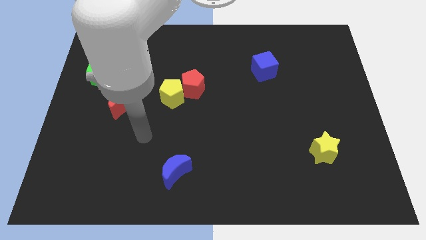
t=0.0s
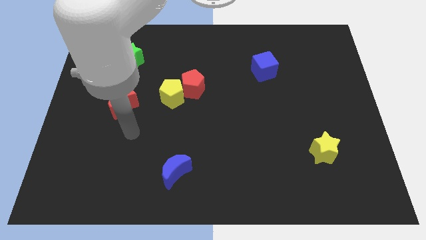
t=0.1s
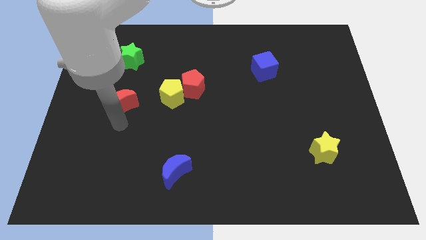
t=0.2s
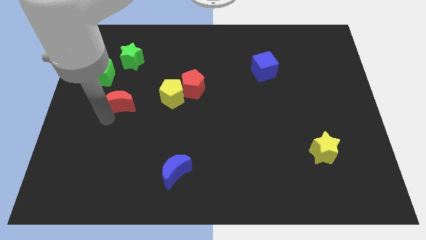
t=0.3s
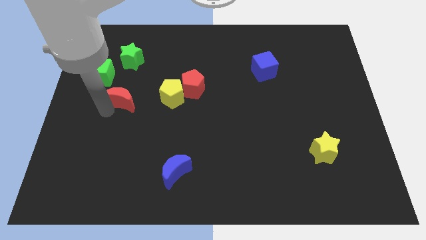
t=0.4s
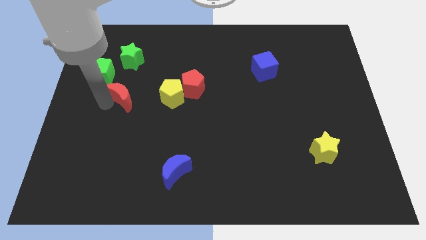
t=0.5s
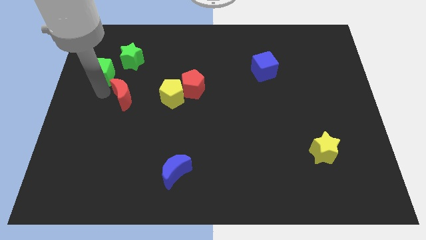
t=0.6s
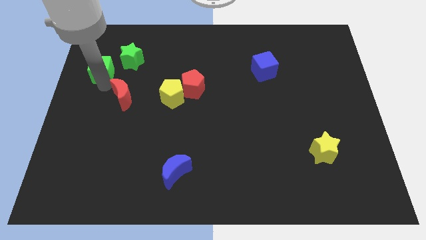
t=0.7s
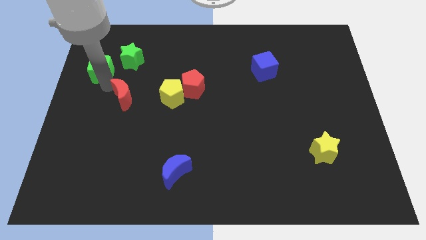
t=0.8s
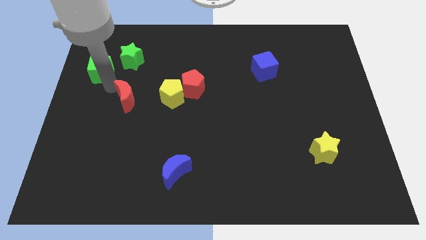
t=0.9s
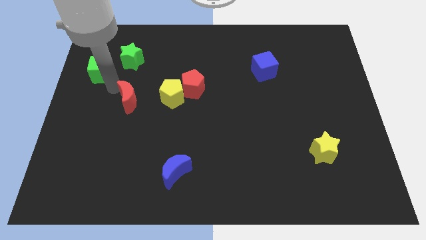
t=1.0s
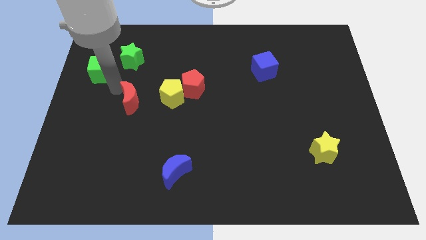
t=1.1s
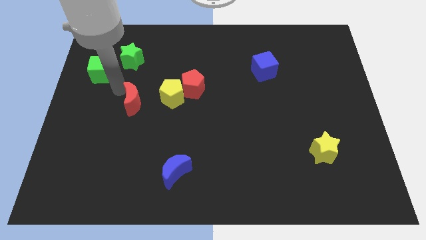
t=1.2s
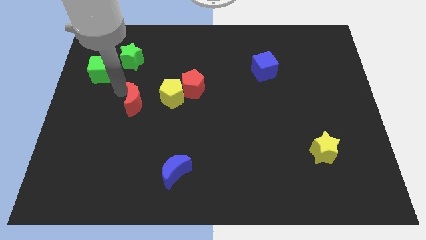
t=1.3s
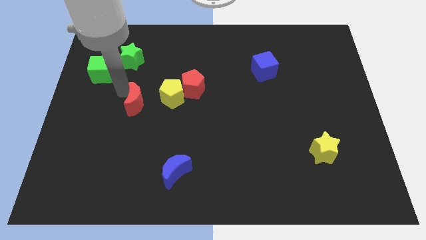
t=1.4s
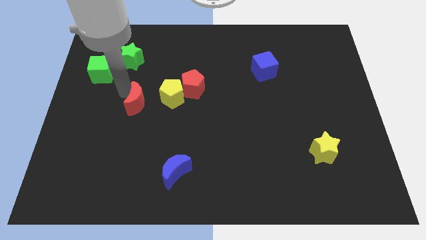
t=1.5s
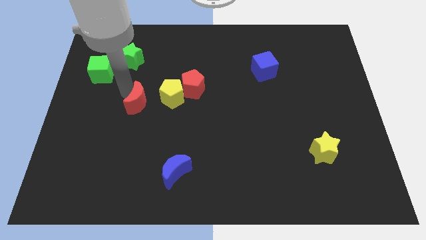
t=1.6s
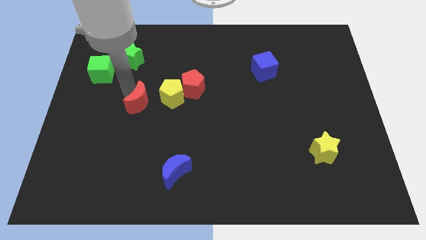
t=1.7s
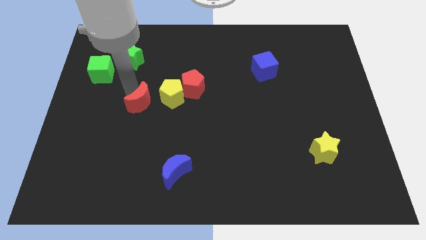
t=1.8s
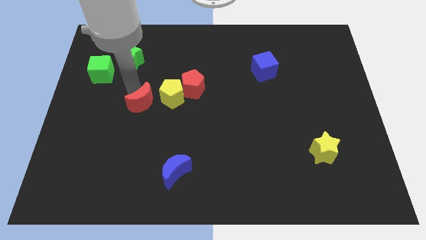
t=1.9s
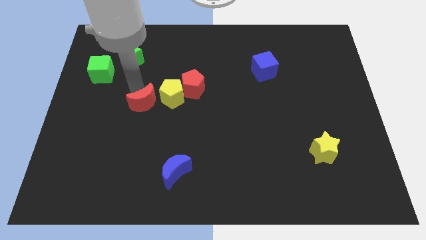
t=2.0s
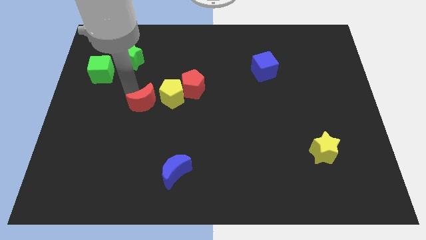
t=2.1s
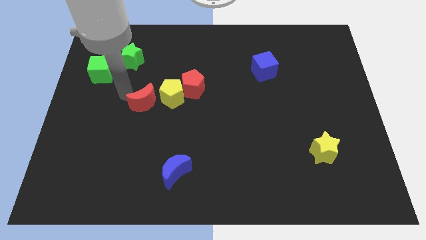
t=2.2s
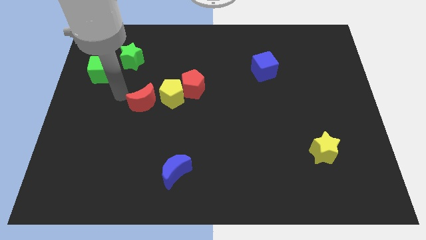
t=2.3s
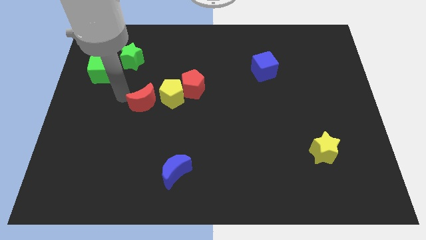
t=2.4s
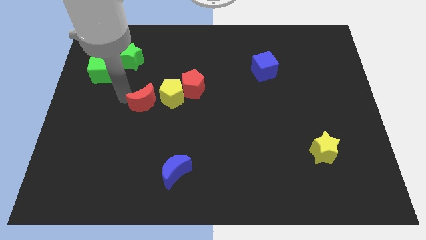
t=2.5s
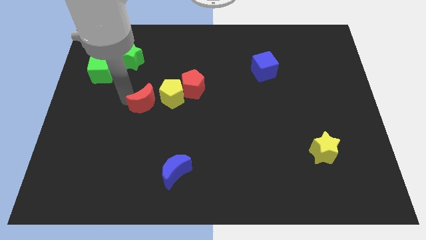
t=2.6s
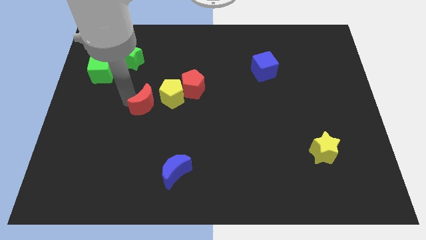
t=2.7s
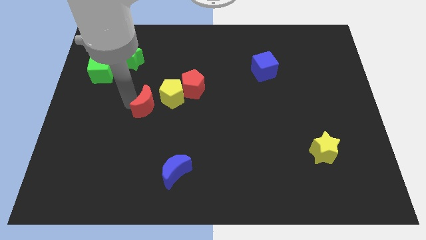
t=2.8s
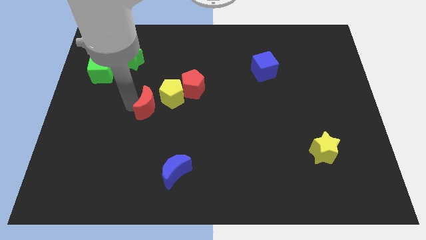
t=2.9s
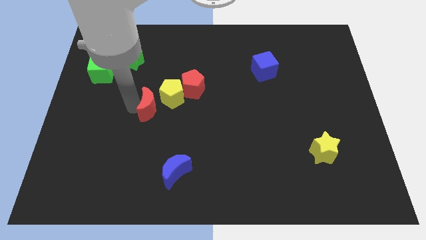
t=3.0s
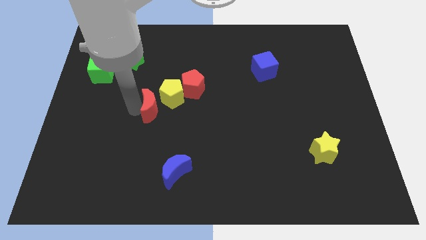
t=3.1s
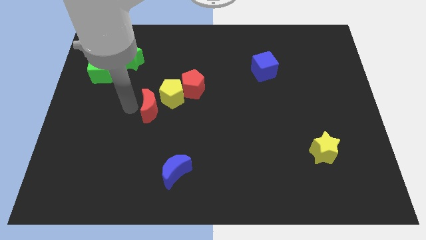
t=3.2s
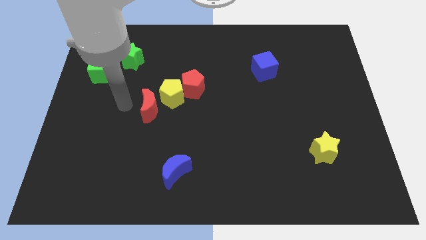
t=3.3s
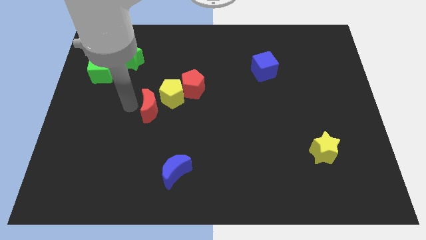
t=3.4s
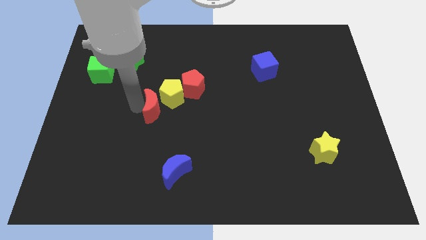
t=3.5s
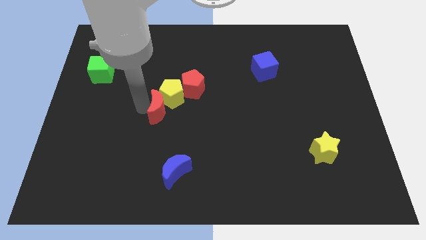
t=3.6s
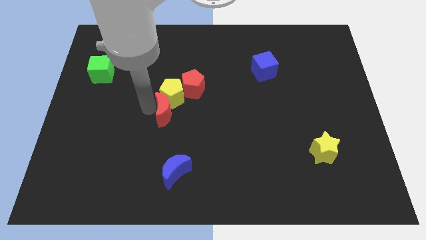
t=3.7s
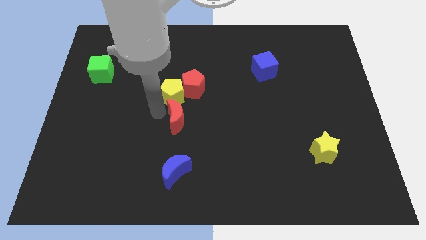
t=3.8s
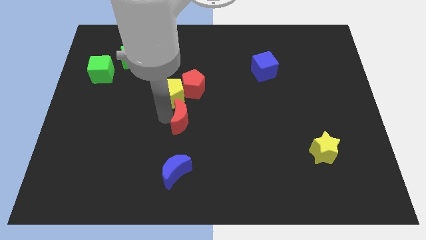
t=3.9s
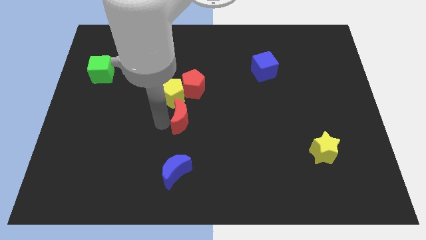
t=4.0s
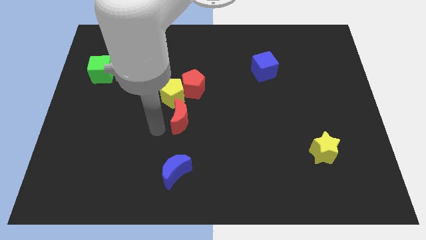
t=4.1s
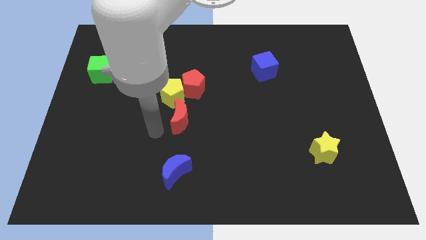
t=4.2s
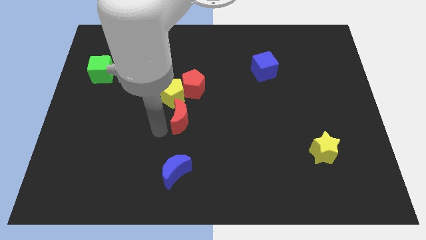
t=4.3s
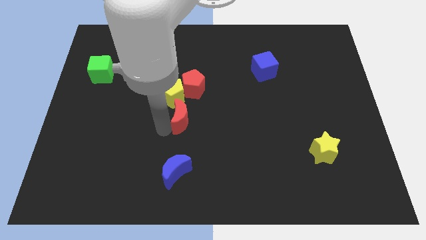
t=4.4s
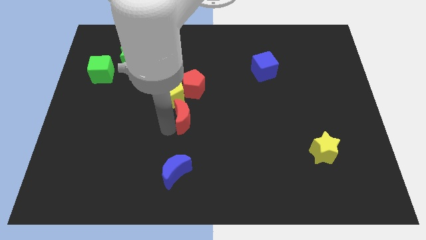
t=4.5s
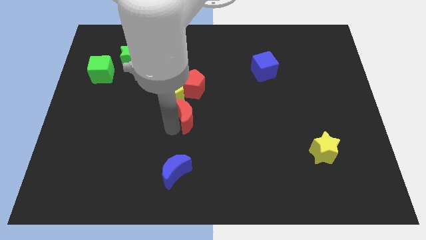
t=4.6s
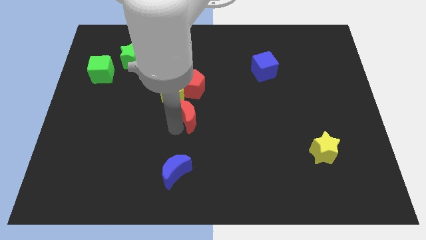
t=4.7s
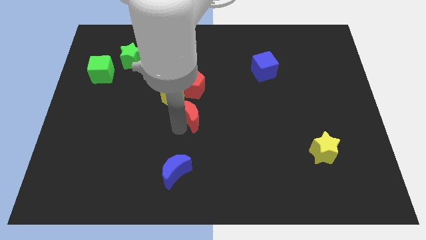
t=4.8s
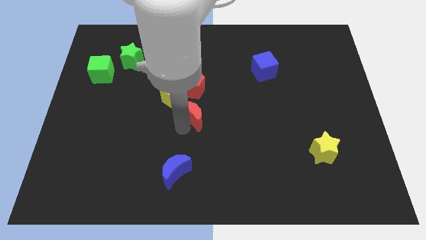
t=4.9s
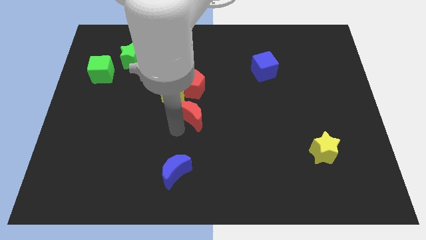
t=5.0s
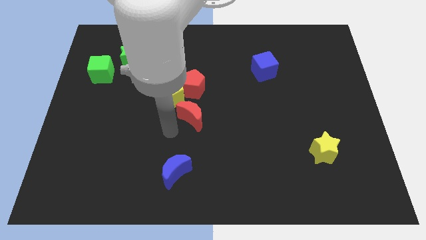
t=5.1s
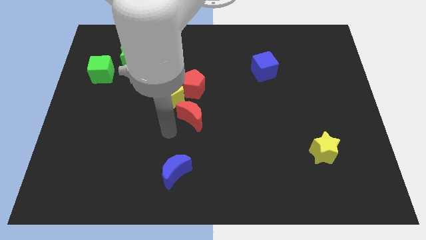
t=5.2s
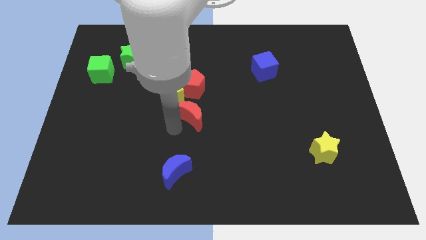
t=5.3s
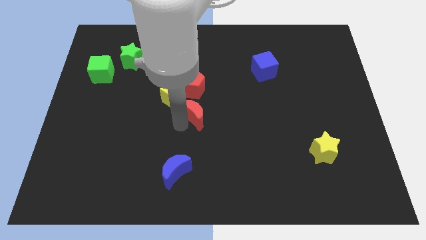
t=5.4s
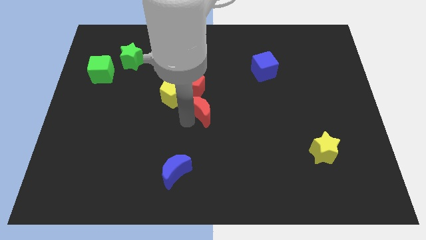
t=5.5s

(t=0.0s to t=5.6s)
slide the red moon to the bottom right of the red pentagon

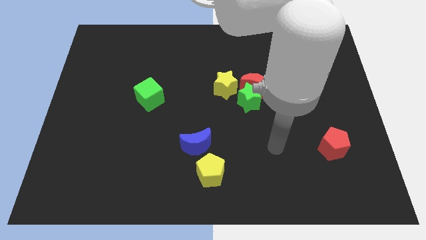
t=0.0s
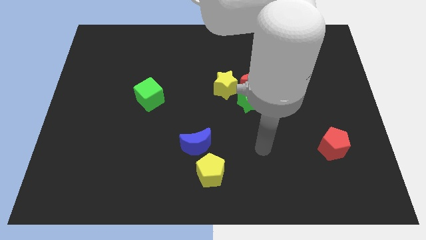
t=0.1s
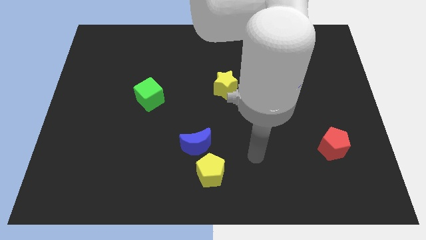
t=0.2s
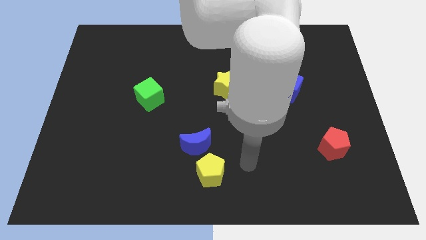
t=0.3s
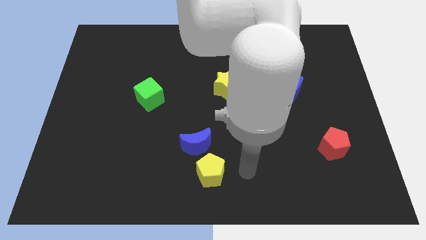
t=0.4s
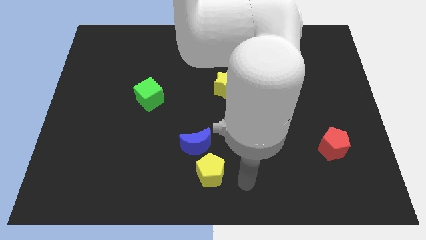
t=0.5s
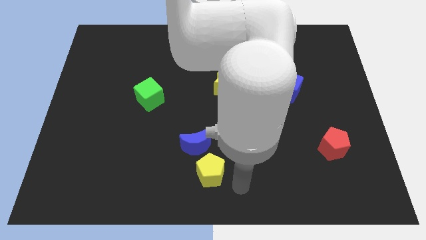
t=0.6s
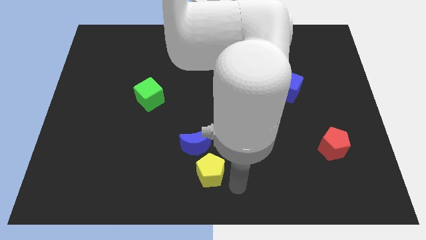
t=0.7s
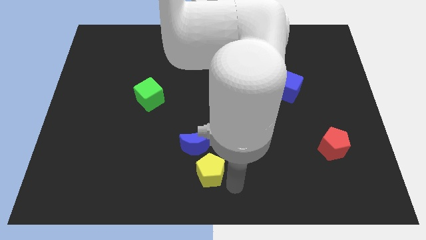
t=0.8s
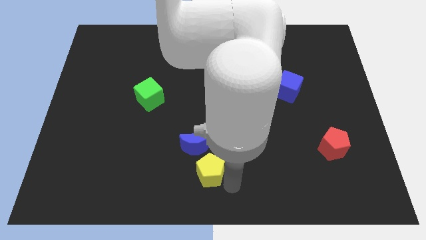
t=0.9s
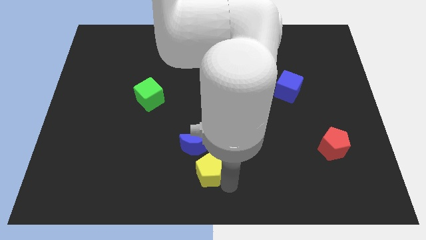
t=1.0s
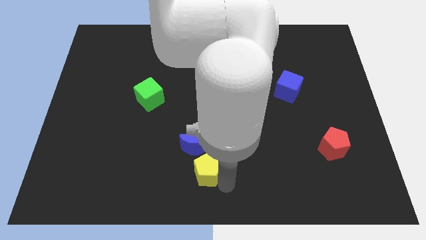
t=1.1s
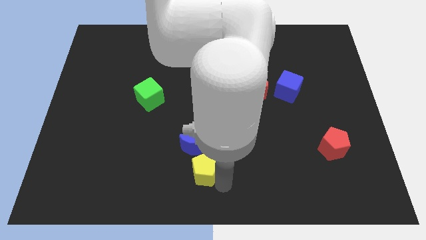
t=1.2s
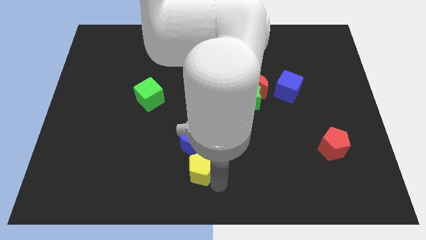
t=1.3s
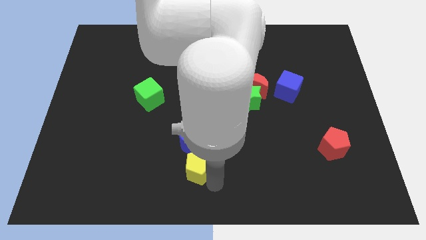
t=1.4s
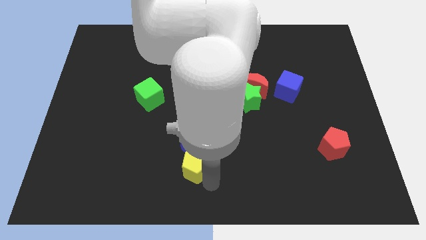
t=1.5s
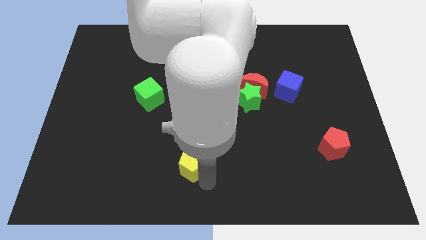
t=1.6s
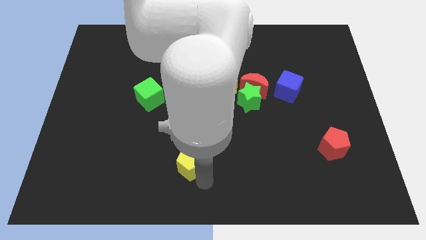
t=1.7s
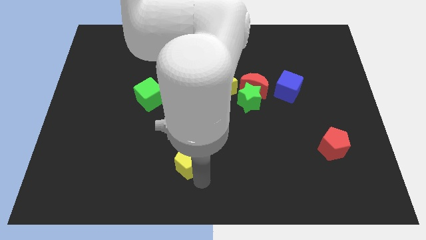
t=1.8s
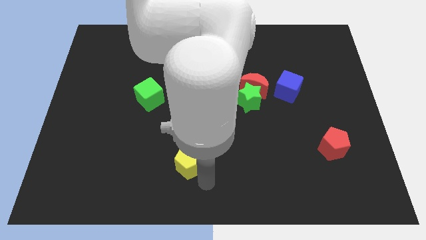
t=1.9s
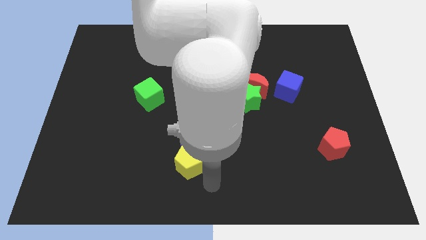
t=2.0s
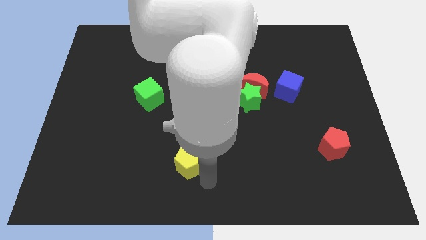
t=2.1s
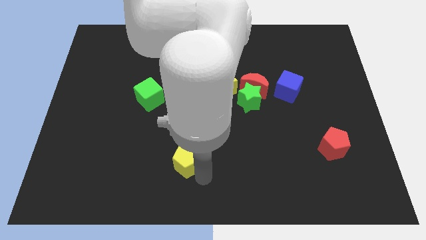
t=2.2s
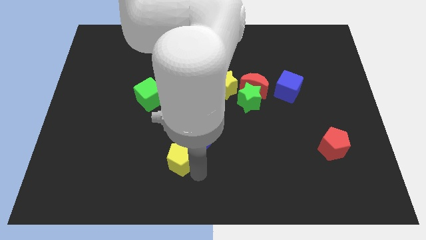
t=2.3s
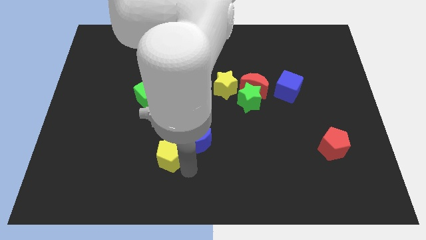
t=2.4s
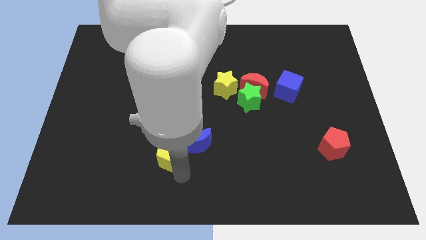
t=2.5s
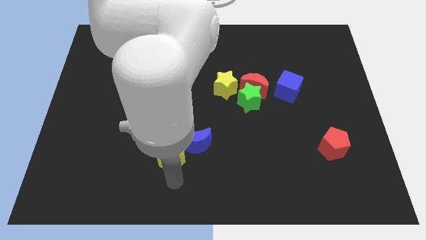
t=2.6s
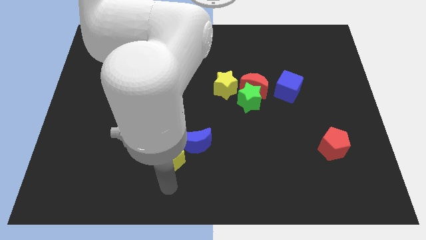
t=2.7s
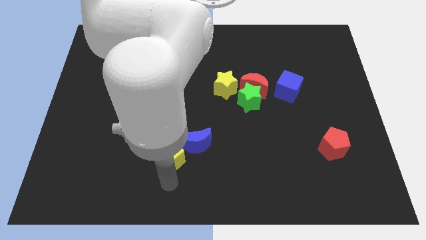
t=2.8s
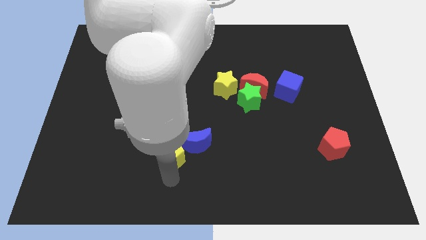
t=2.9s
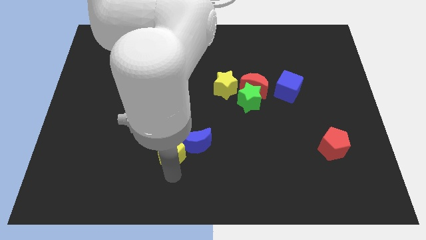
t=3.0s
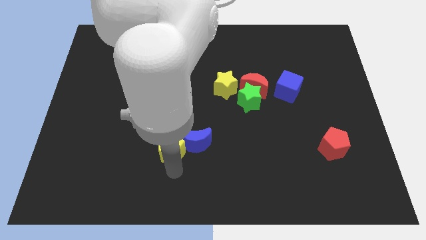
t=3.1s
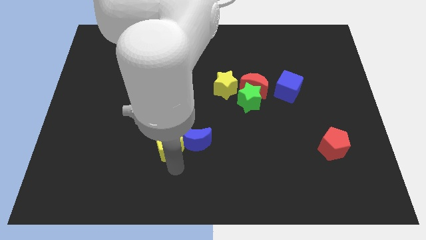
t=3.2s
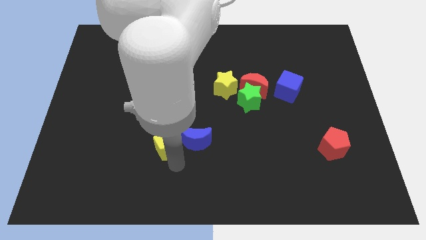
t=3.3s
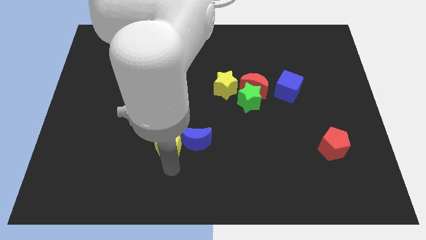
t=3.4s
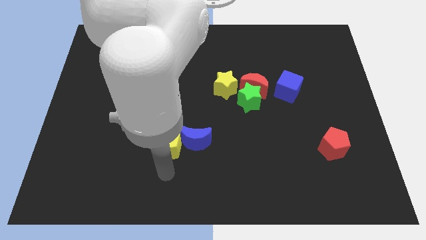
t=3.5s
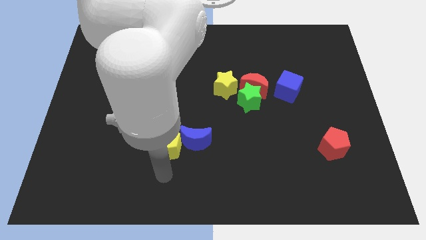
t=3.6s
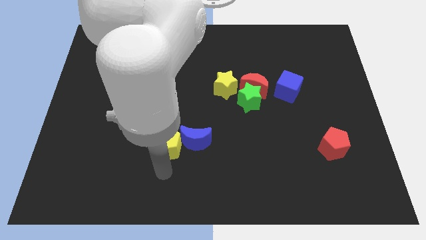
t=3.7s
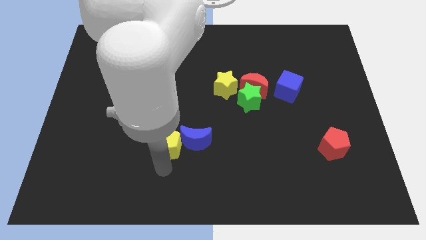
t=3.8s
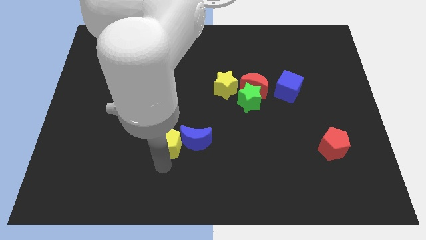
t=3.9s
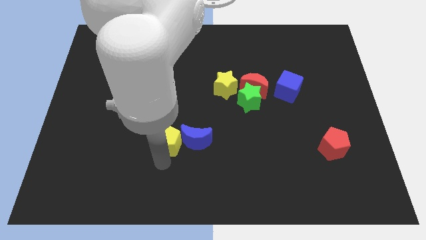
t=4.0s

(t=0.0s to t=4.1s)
slide the yellow pentagon diagonally up and to the left of the blue moon
